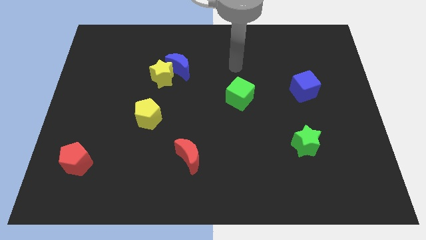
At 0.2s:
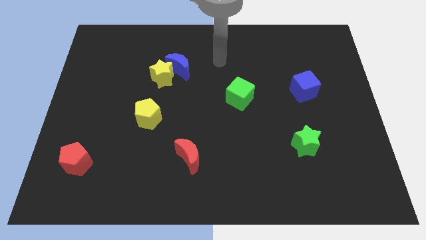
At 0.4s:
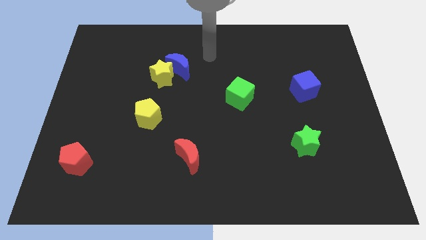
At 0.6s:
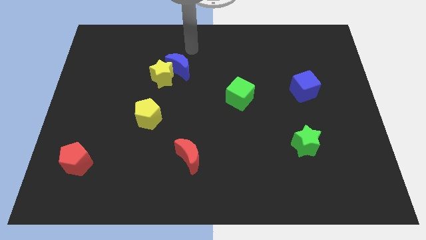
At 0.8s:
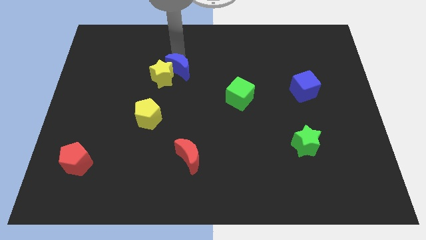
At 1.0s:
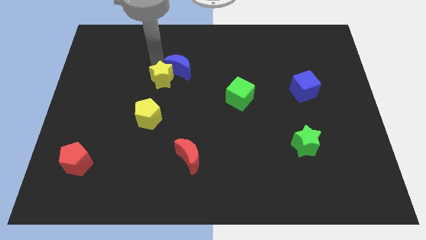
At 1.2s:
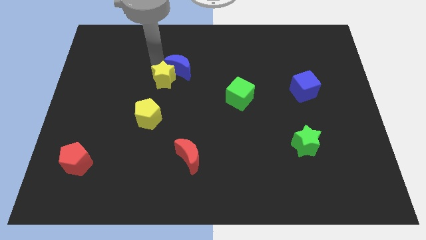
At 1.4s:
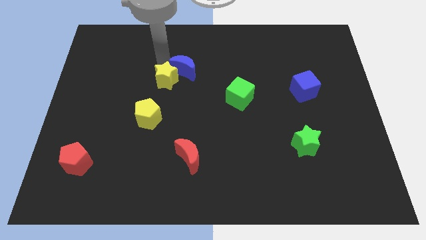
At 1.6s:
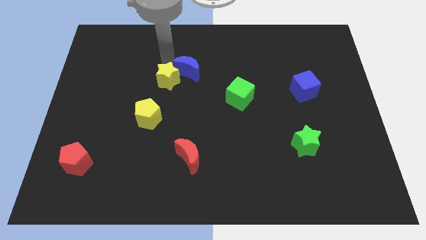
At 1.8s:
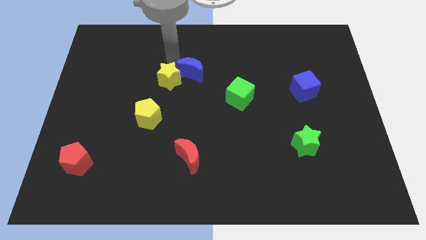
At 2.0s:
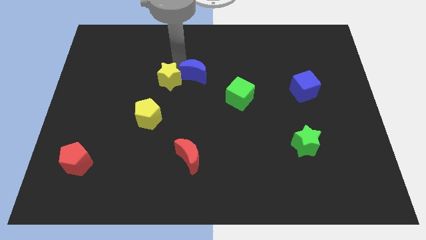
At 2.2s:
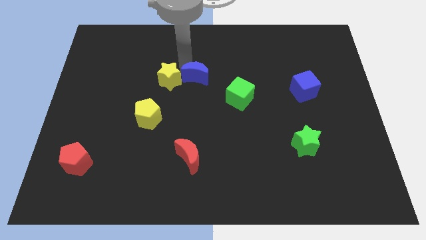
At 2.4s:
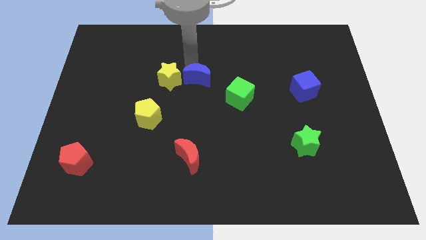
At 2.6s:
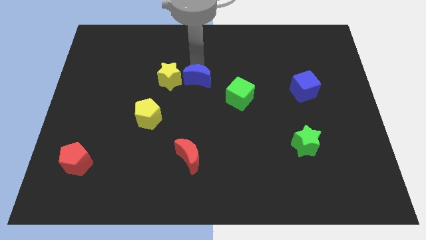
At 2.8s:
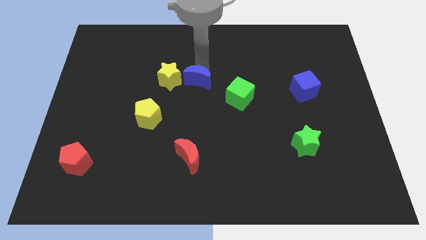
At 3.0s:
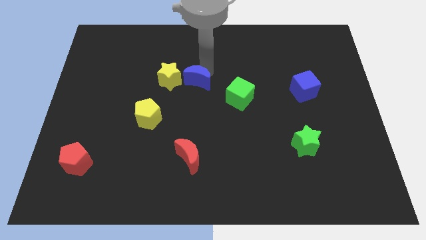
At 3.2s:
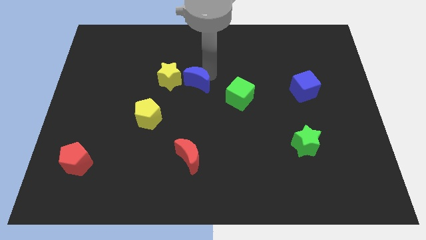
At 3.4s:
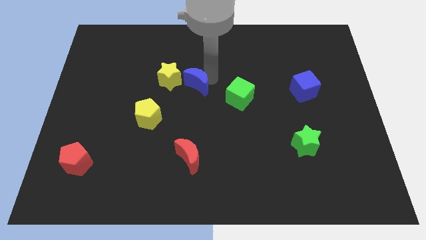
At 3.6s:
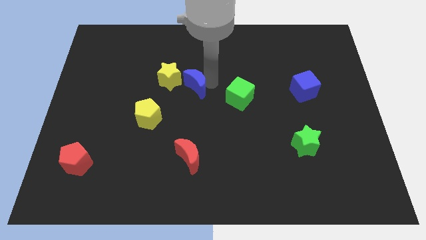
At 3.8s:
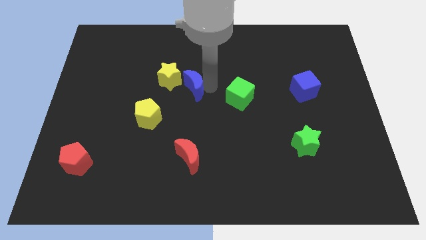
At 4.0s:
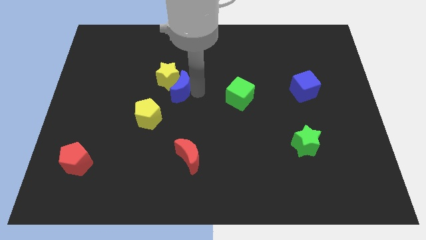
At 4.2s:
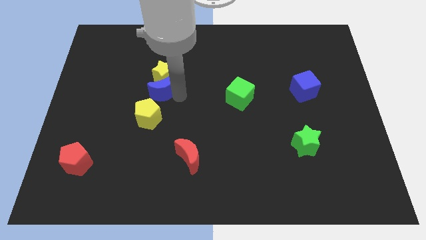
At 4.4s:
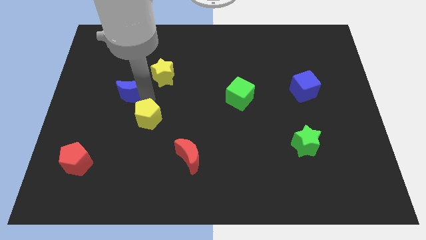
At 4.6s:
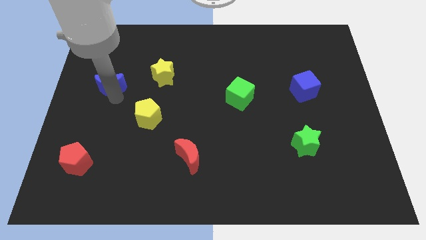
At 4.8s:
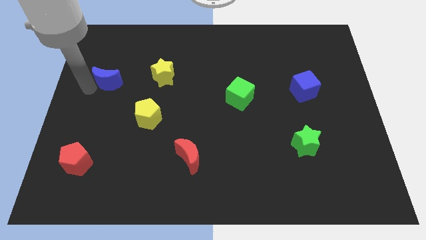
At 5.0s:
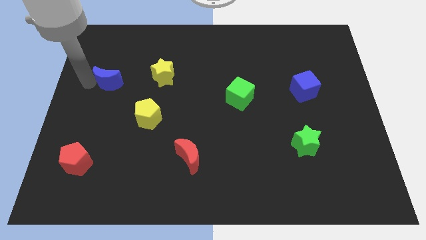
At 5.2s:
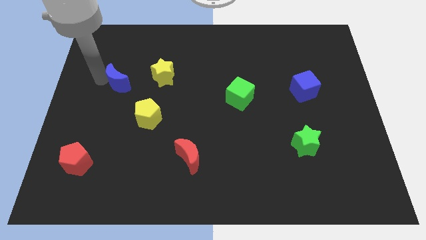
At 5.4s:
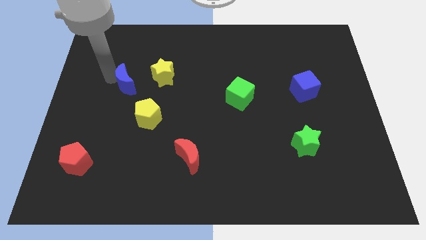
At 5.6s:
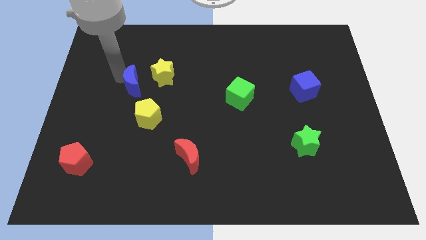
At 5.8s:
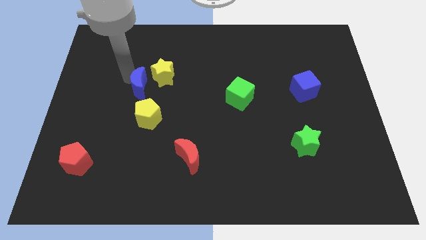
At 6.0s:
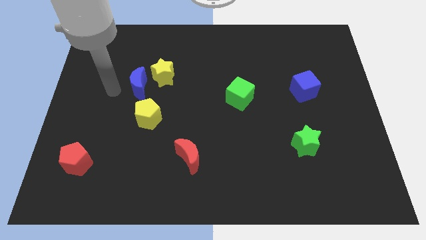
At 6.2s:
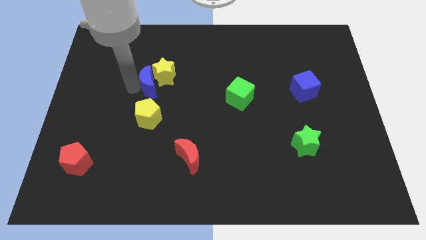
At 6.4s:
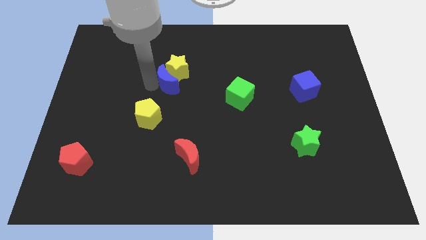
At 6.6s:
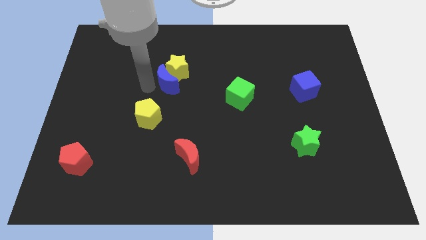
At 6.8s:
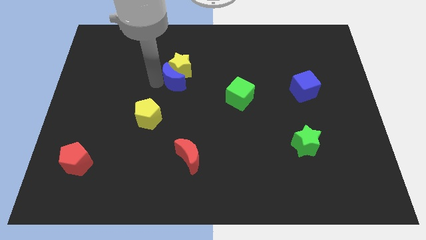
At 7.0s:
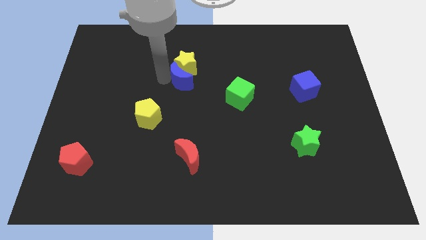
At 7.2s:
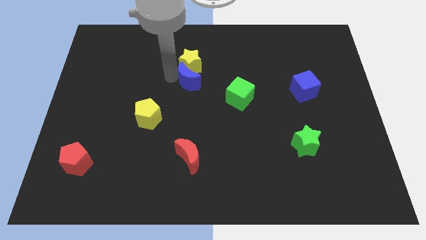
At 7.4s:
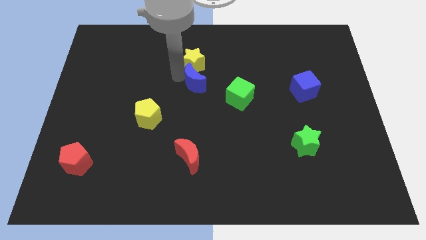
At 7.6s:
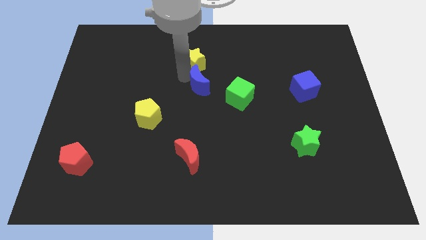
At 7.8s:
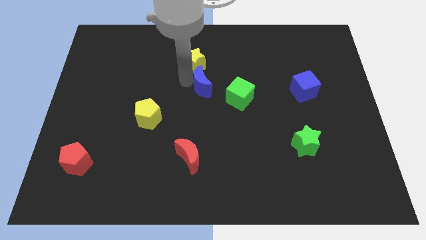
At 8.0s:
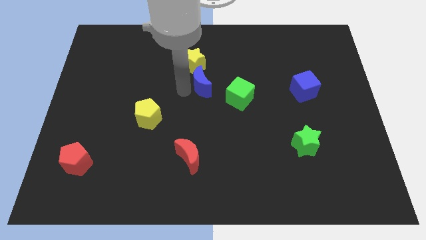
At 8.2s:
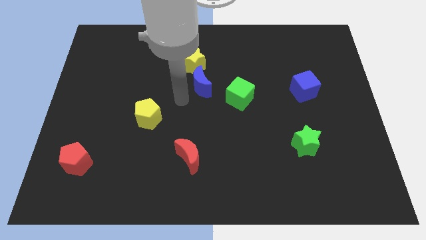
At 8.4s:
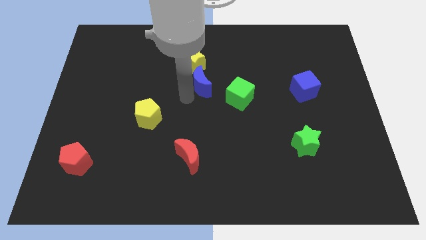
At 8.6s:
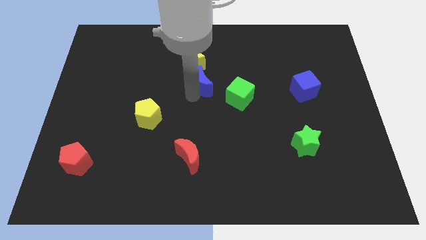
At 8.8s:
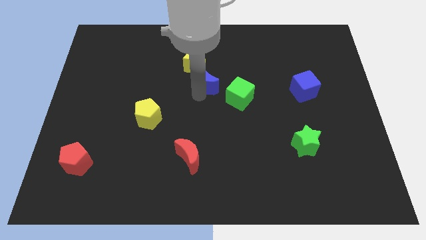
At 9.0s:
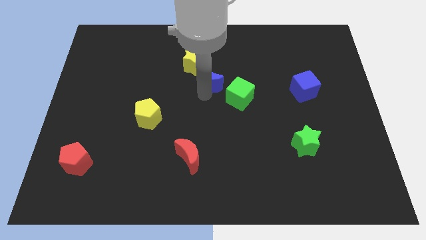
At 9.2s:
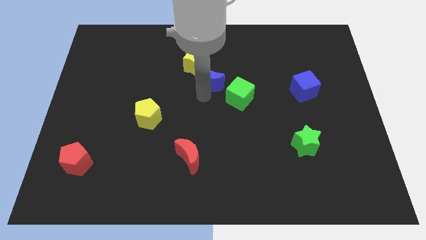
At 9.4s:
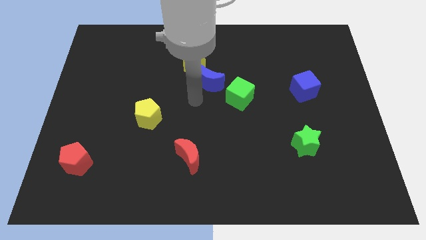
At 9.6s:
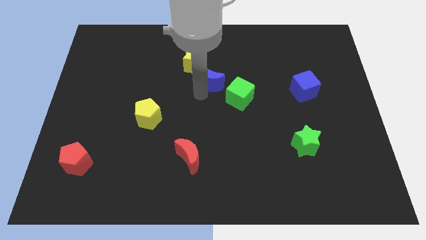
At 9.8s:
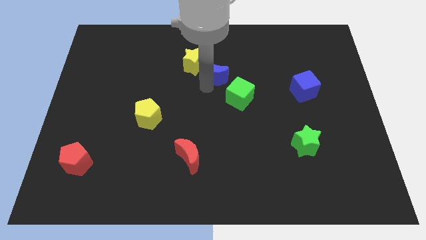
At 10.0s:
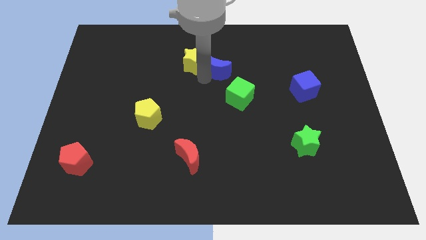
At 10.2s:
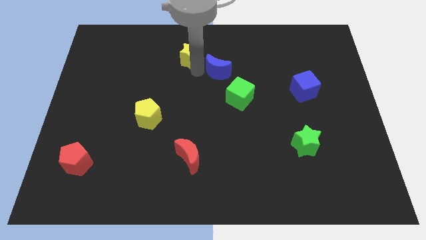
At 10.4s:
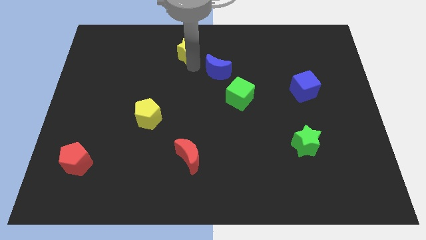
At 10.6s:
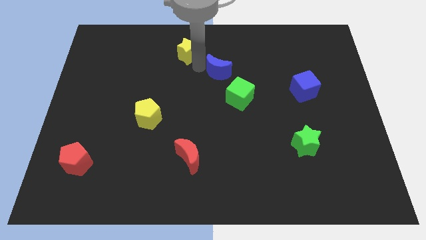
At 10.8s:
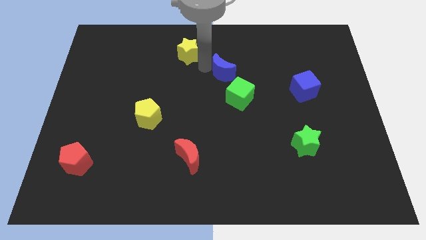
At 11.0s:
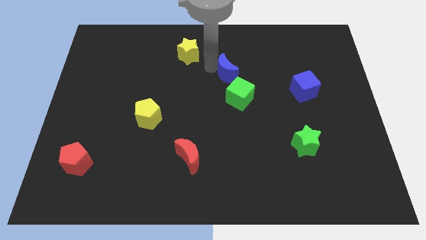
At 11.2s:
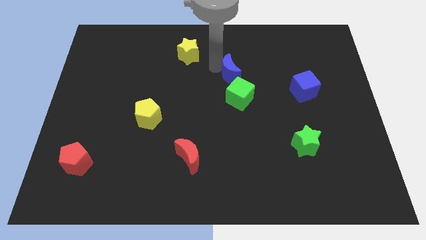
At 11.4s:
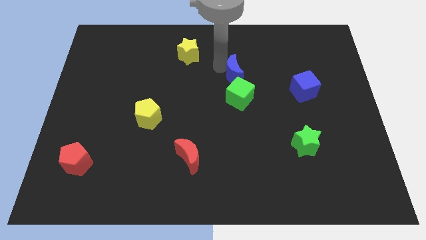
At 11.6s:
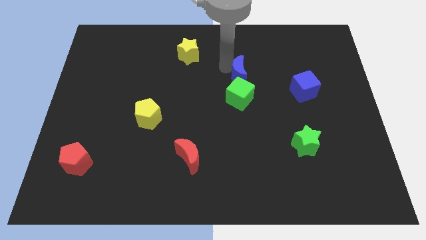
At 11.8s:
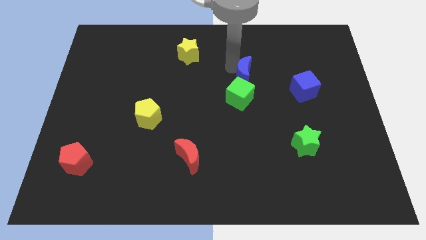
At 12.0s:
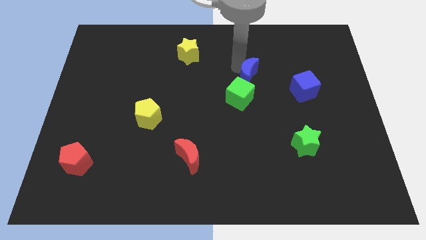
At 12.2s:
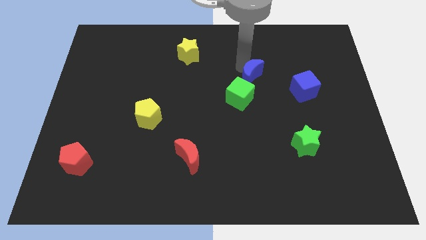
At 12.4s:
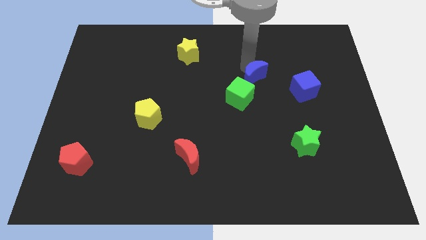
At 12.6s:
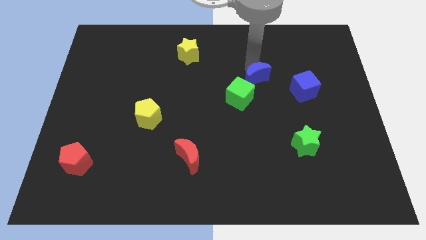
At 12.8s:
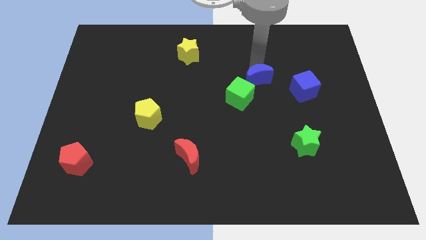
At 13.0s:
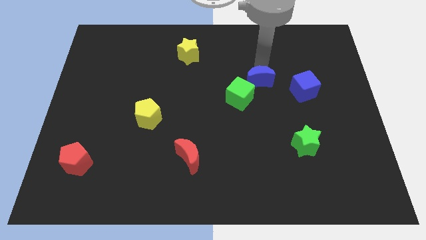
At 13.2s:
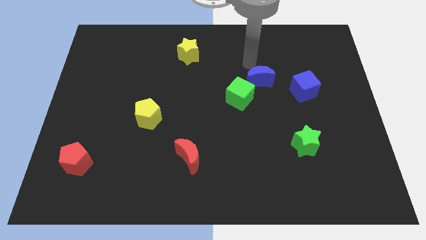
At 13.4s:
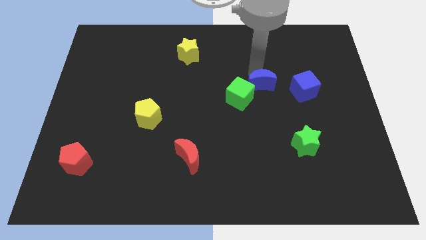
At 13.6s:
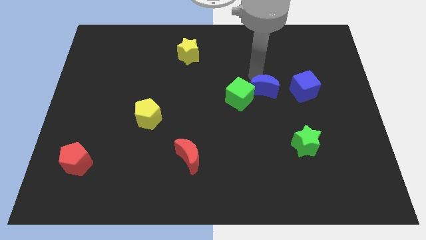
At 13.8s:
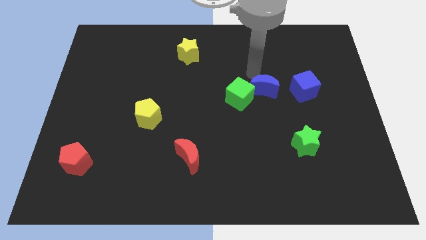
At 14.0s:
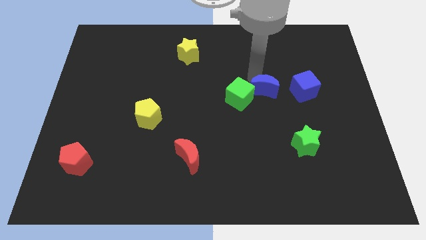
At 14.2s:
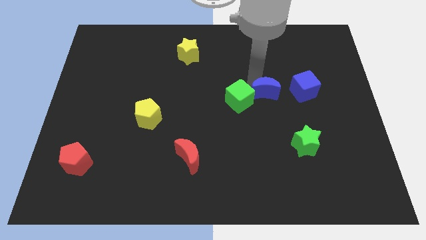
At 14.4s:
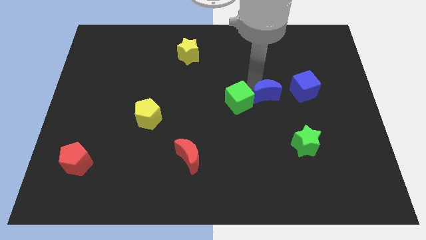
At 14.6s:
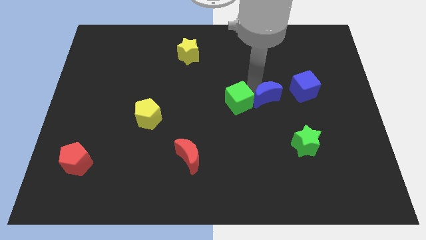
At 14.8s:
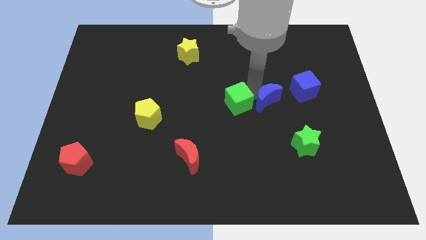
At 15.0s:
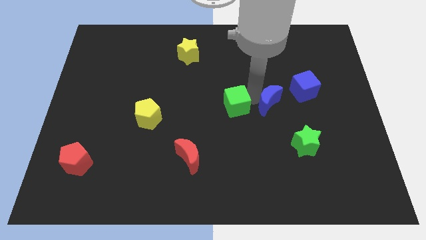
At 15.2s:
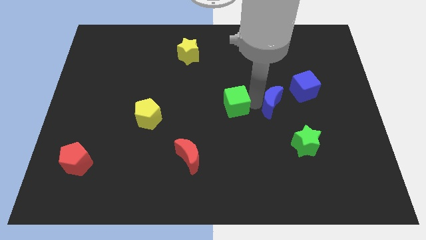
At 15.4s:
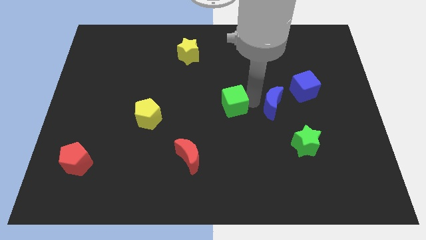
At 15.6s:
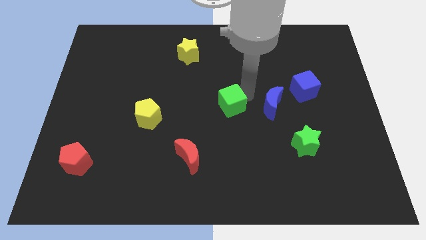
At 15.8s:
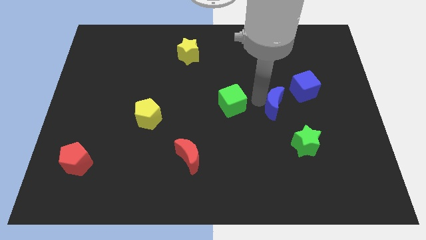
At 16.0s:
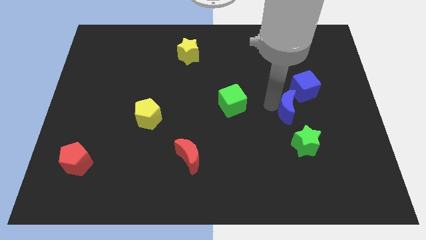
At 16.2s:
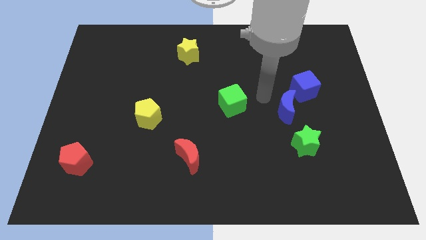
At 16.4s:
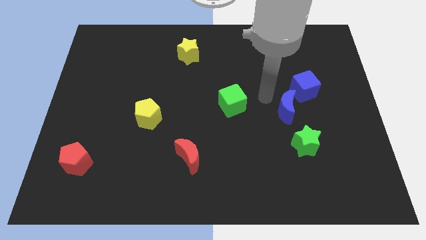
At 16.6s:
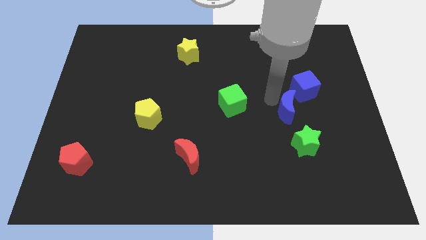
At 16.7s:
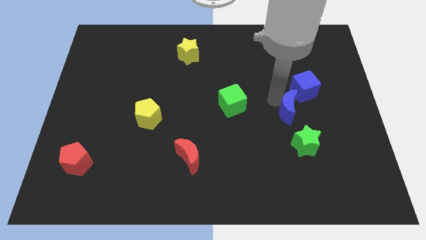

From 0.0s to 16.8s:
put the blue moon to the bottom of the blue cube
